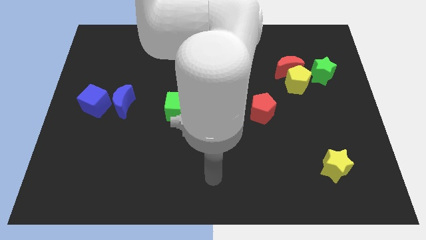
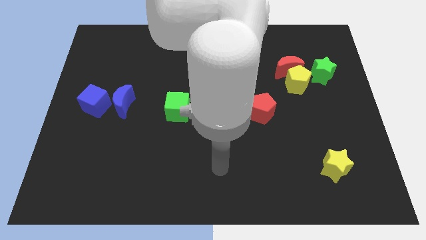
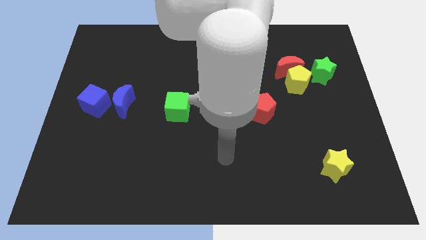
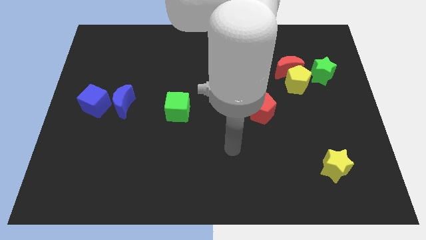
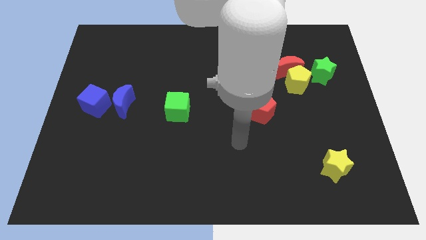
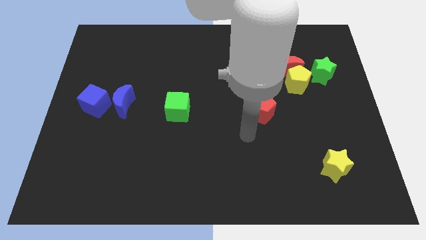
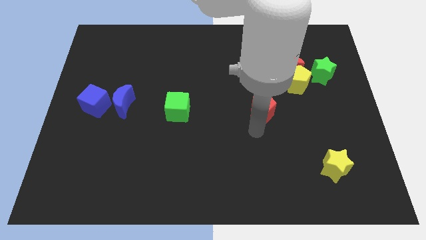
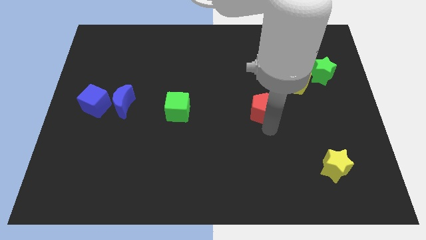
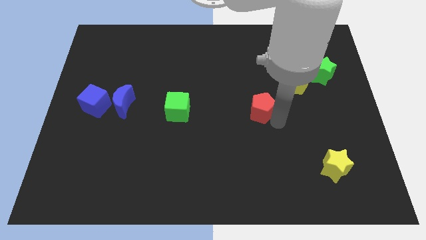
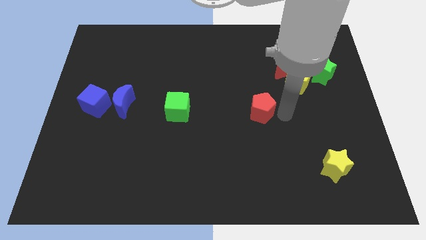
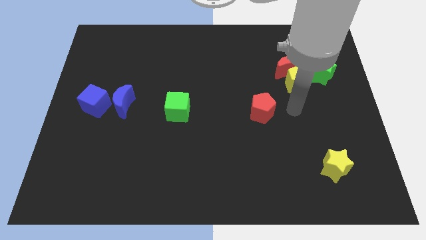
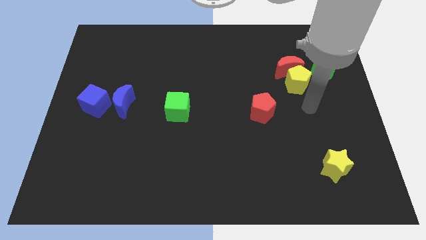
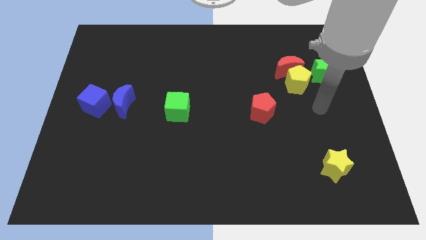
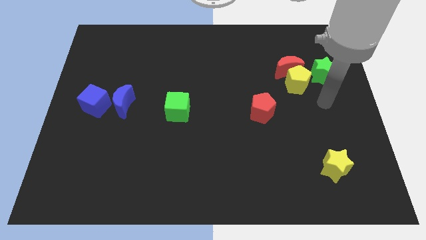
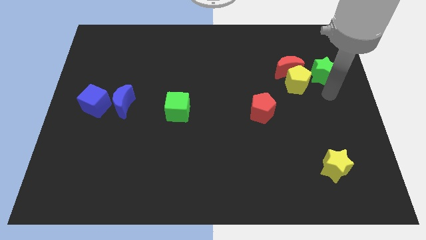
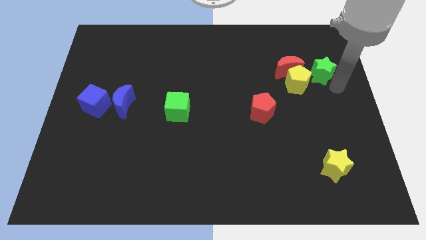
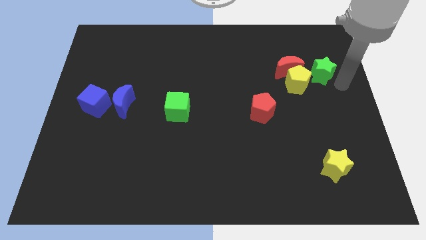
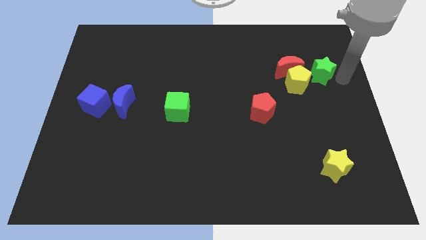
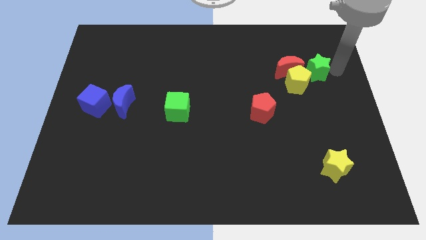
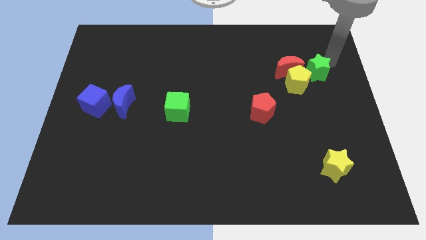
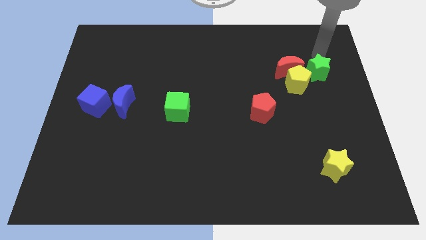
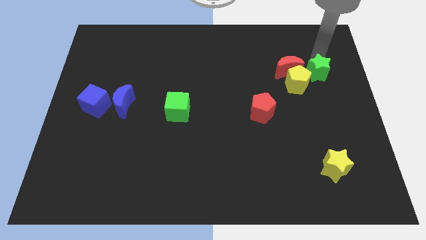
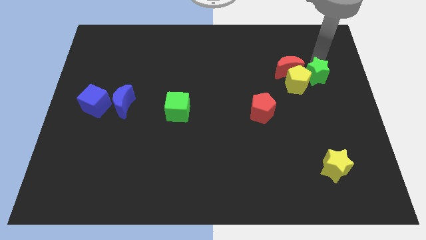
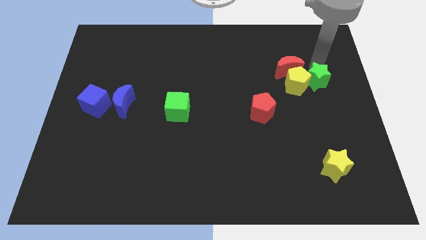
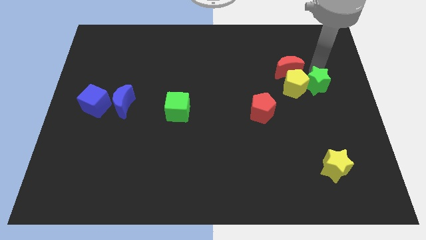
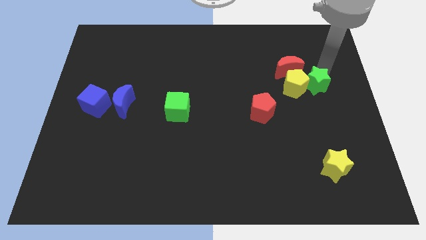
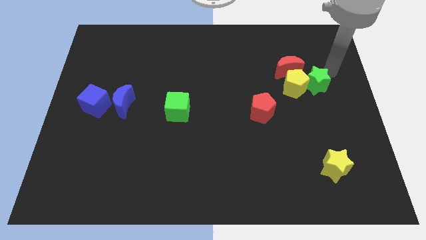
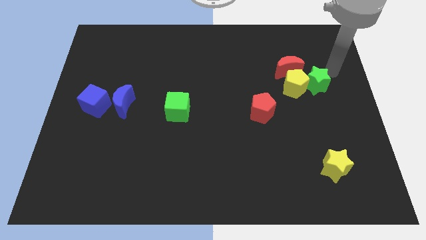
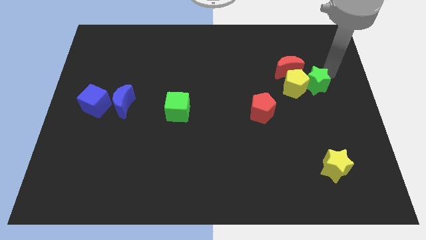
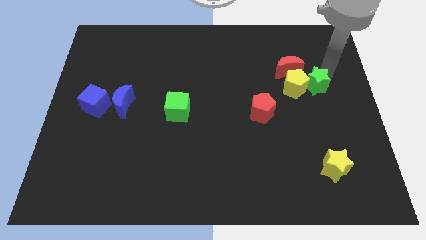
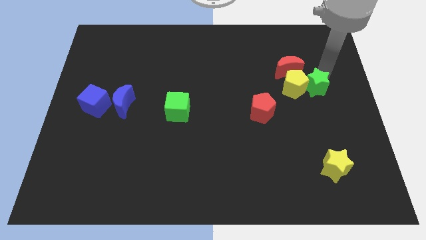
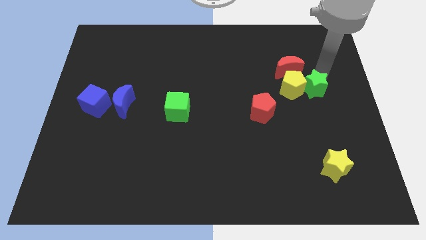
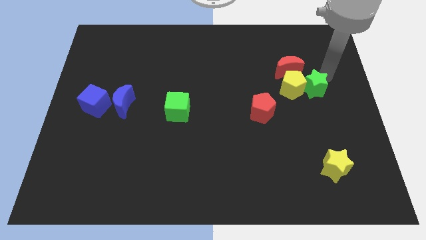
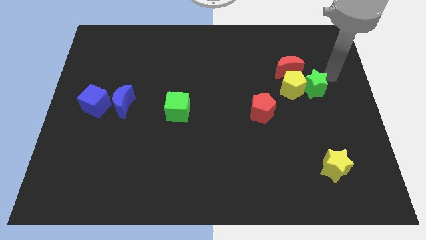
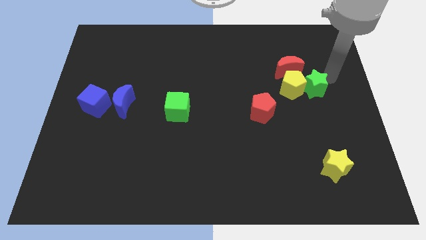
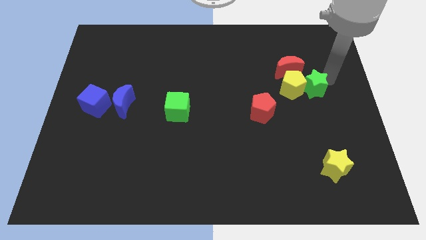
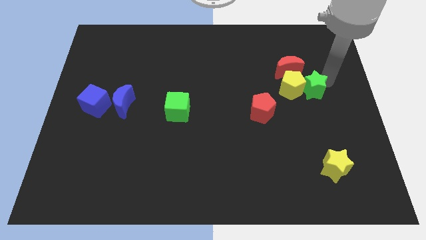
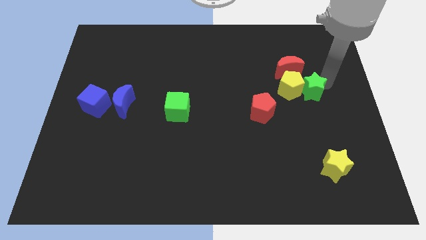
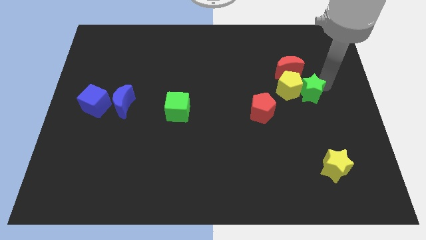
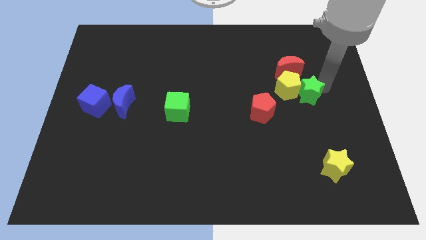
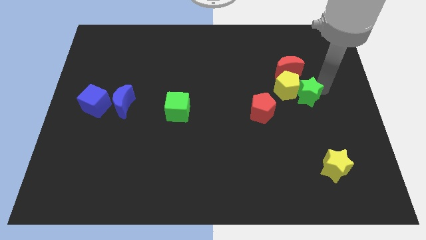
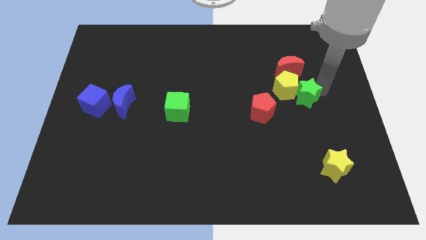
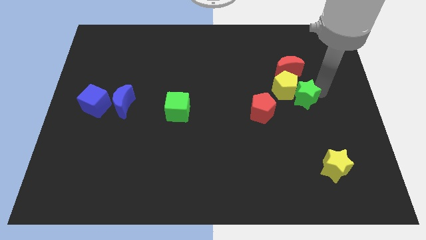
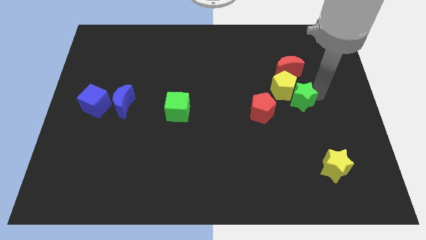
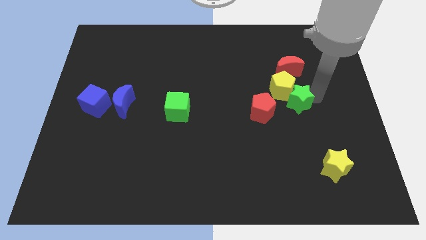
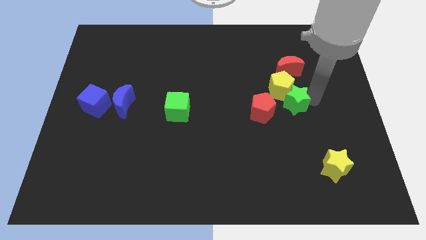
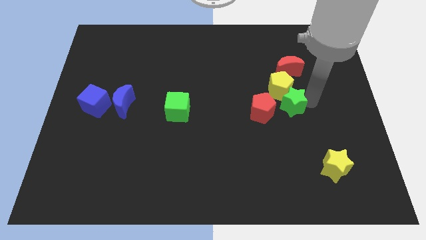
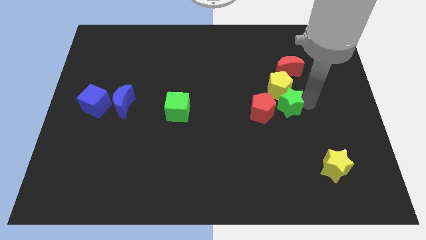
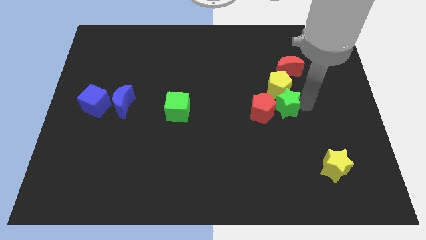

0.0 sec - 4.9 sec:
put the green star close to the red pentagon

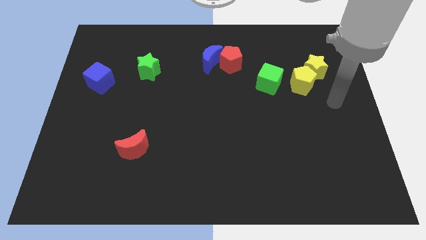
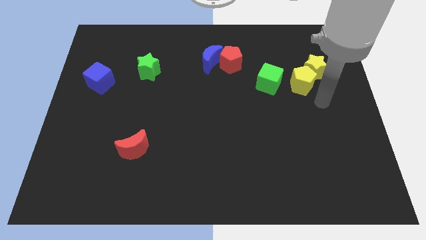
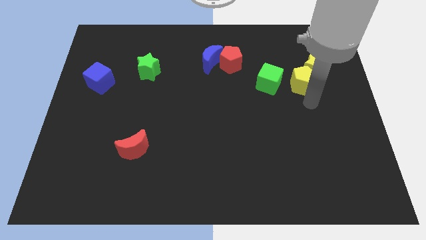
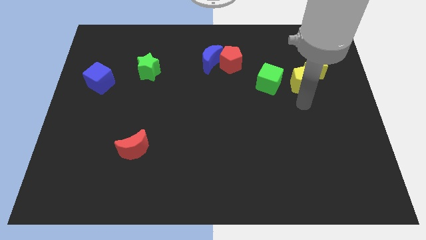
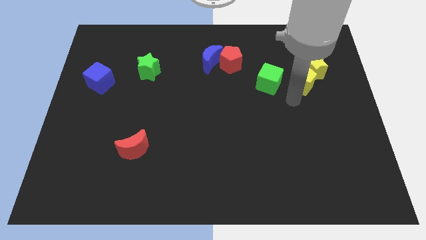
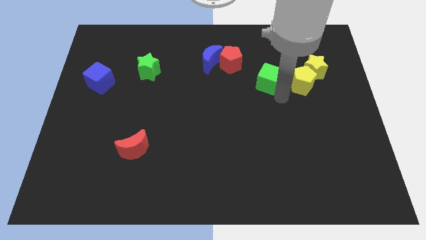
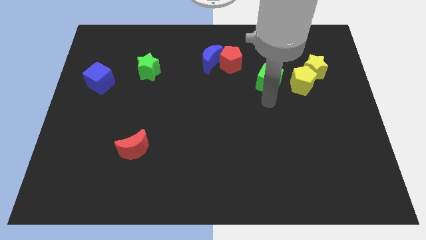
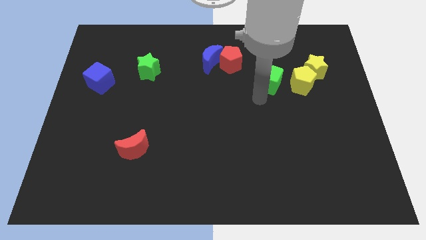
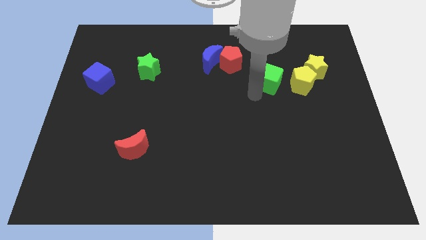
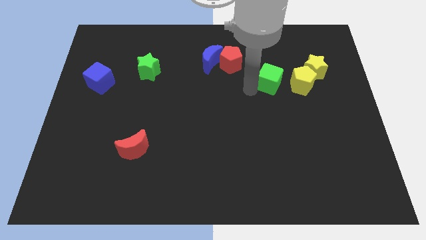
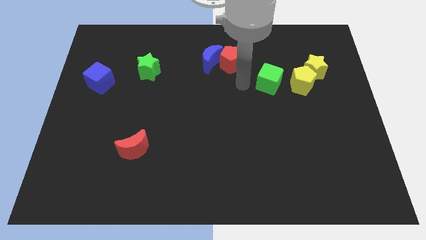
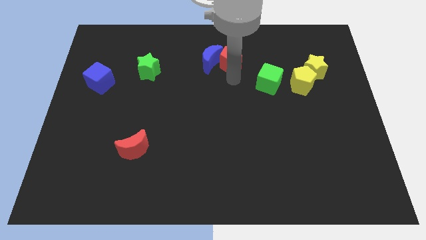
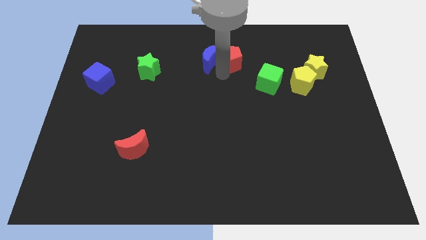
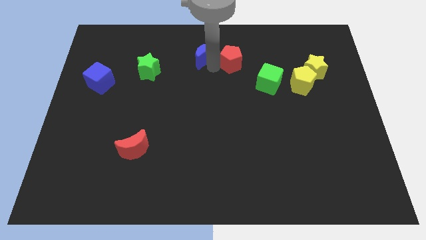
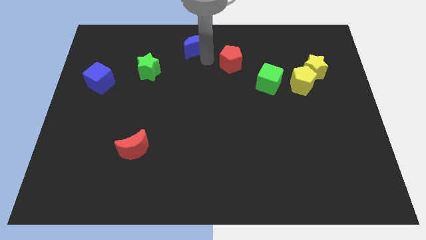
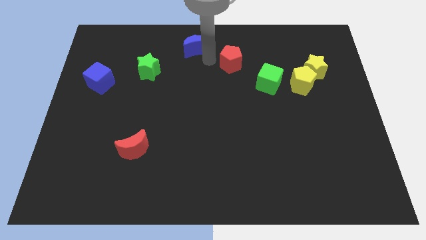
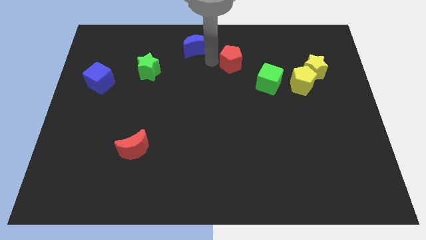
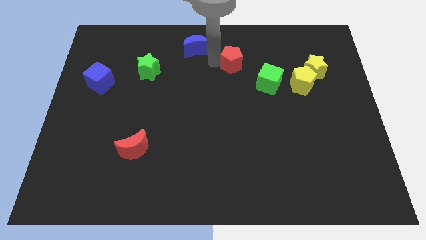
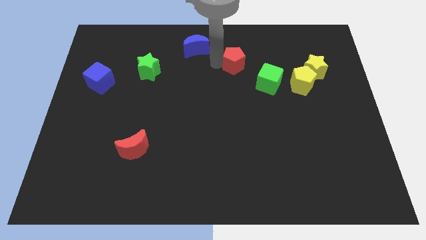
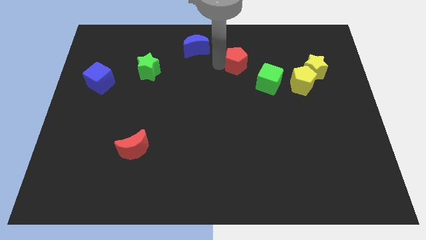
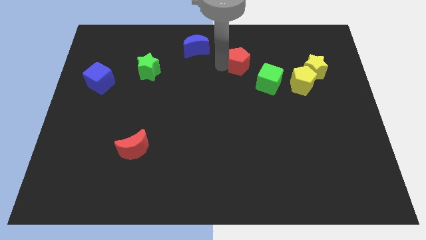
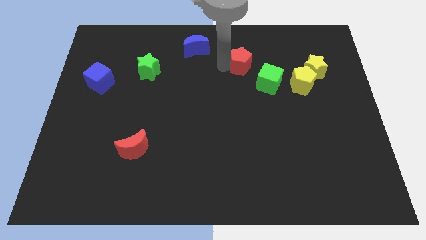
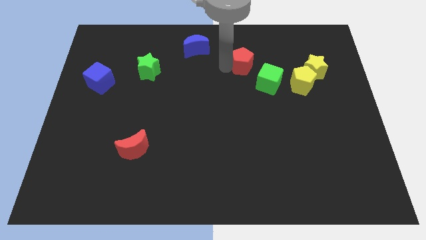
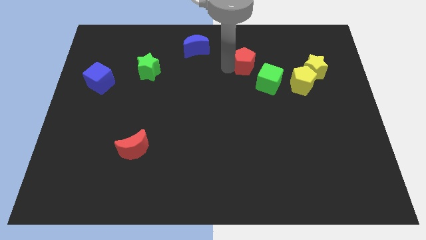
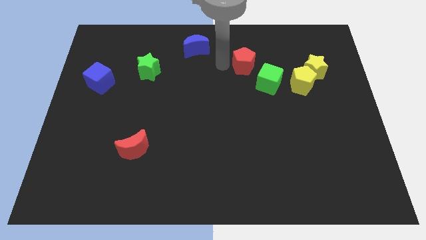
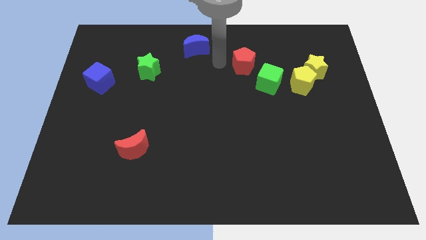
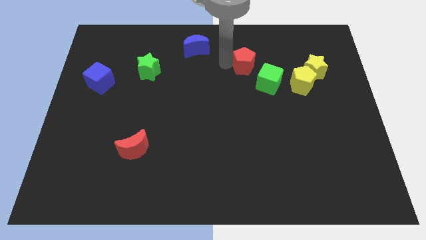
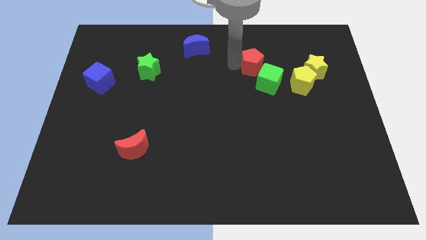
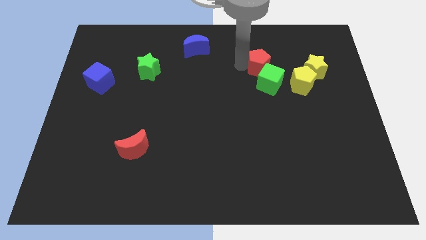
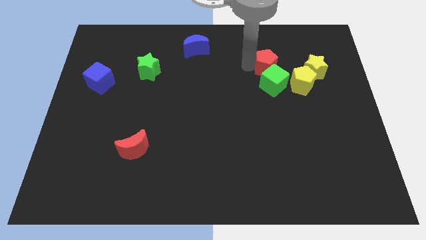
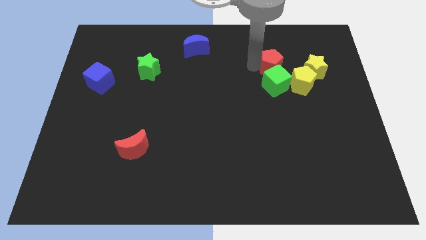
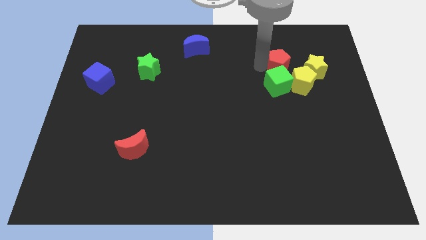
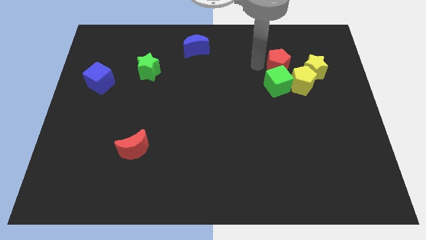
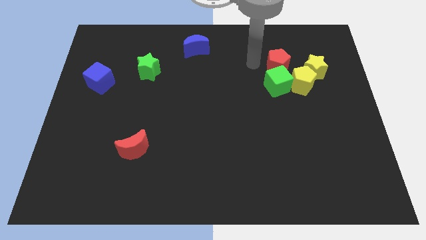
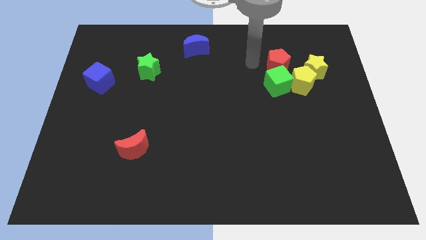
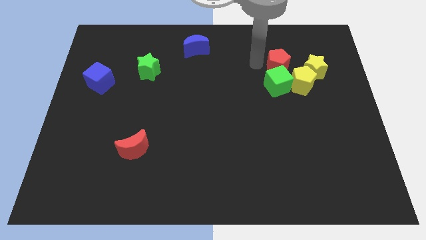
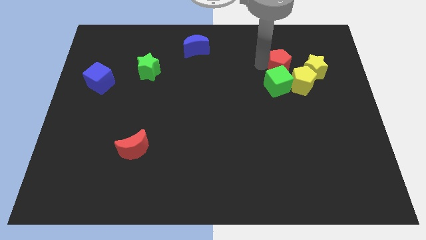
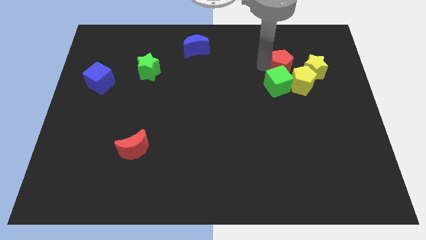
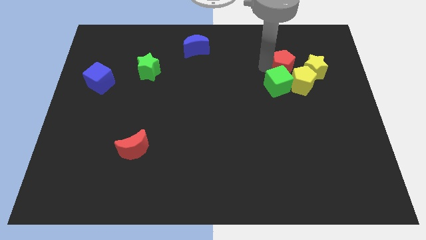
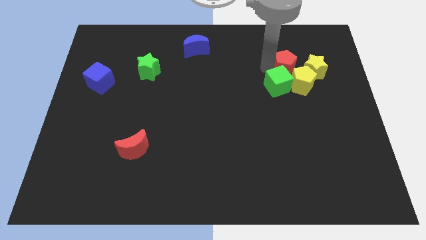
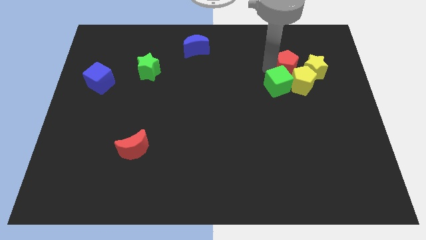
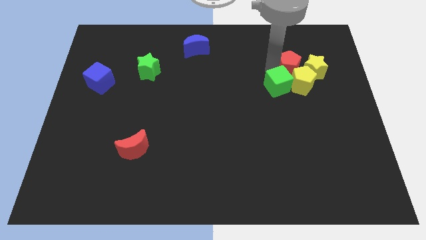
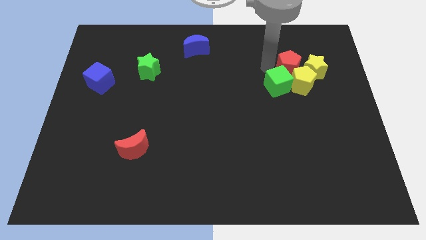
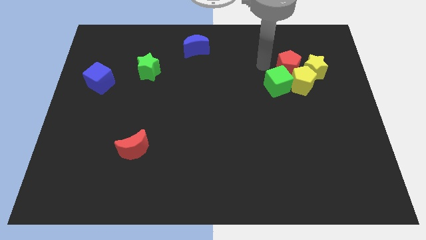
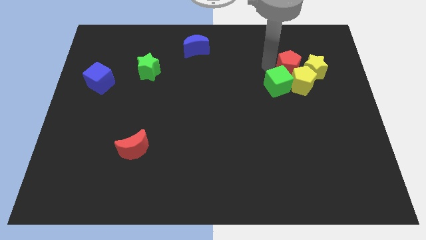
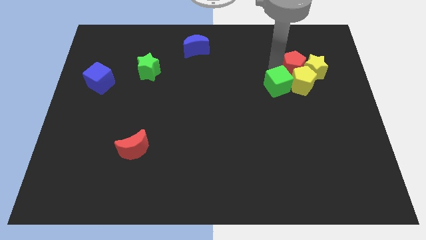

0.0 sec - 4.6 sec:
slide the red pentagon next to the yellow star
